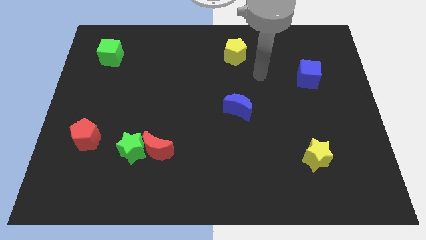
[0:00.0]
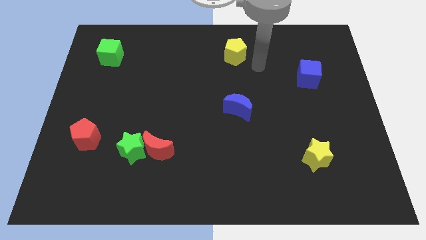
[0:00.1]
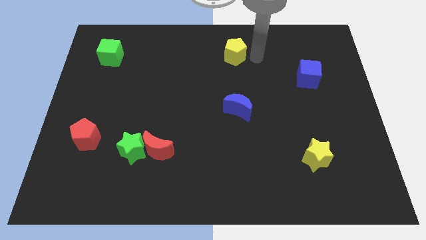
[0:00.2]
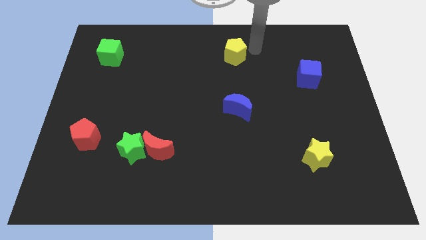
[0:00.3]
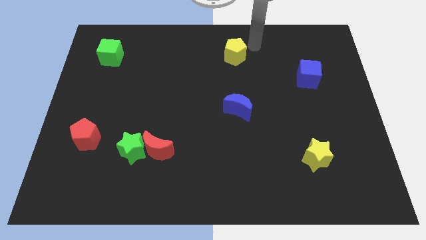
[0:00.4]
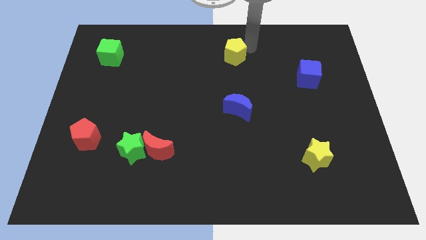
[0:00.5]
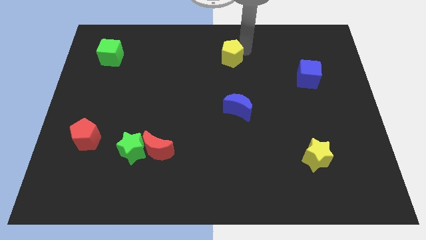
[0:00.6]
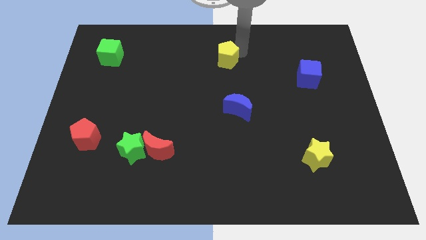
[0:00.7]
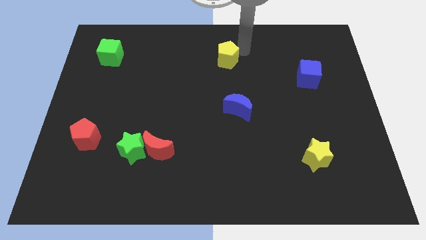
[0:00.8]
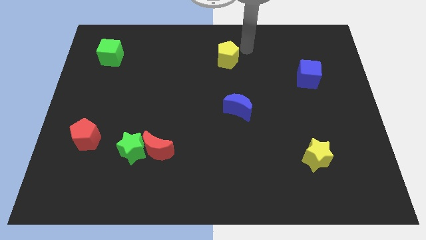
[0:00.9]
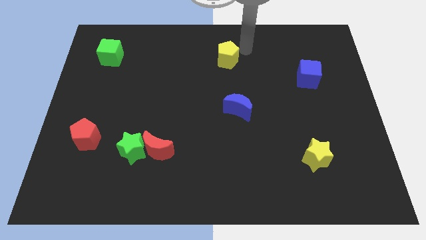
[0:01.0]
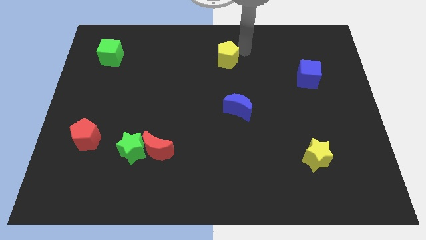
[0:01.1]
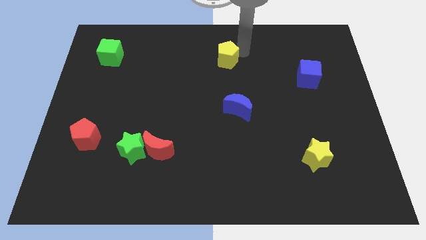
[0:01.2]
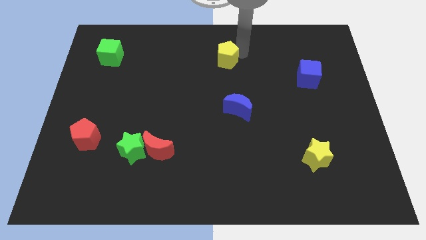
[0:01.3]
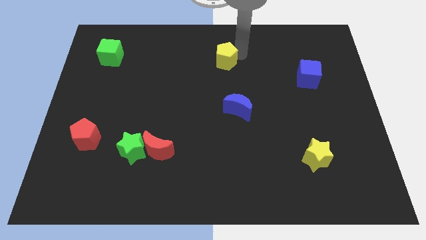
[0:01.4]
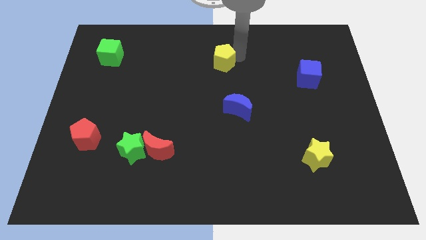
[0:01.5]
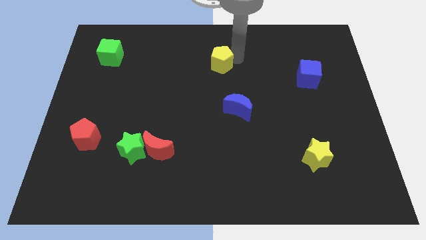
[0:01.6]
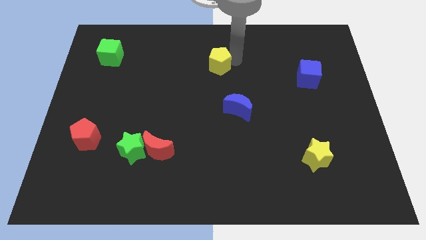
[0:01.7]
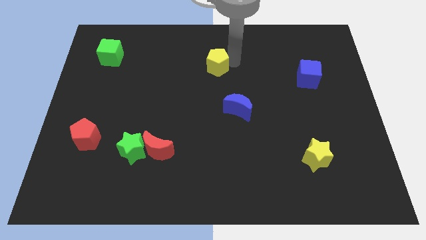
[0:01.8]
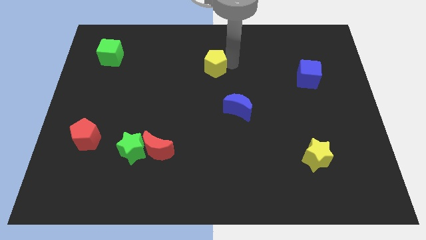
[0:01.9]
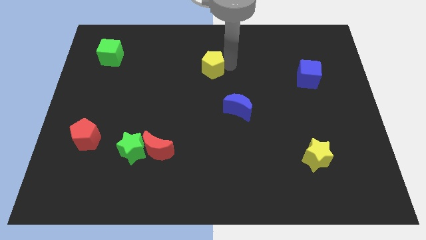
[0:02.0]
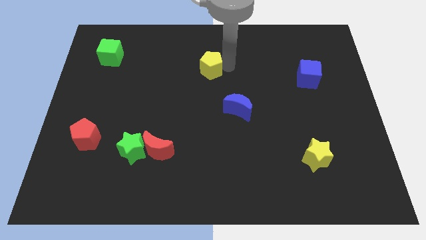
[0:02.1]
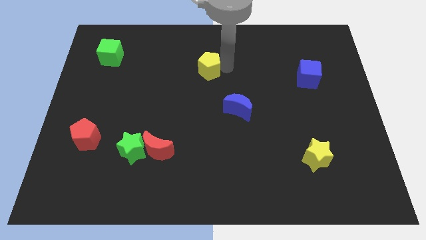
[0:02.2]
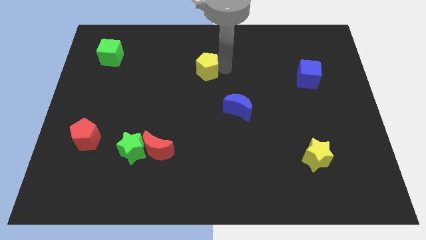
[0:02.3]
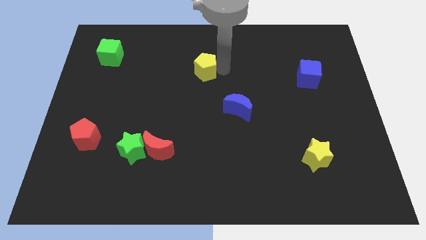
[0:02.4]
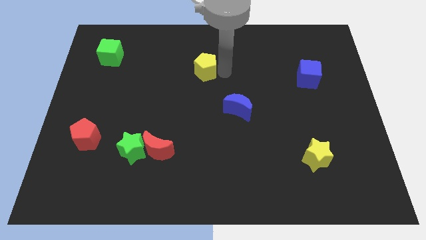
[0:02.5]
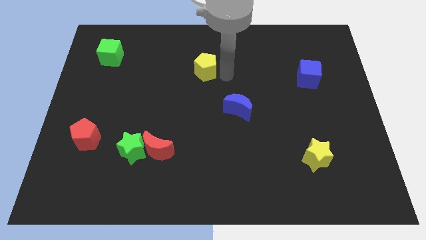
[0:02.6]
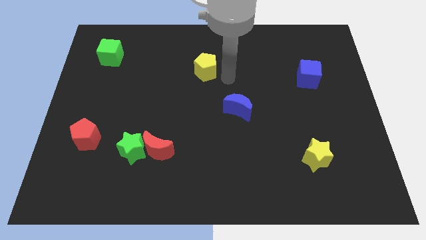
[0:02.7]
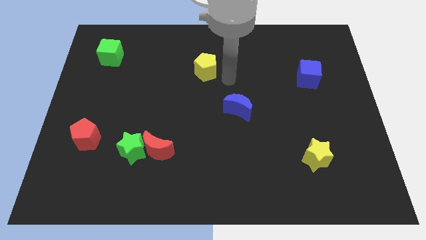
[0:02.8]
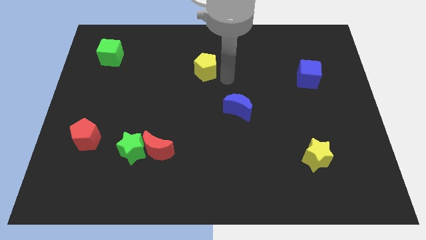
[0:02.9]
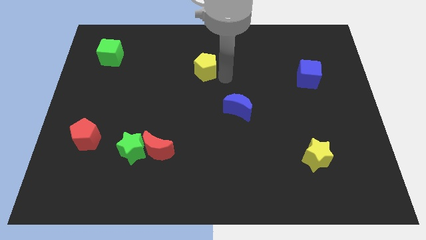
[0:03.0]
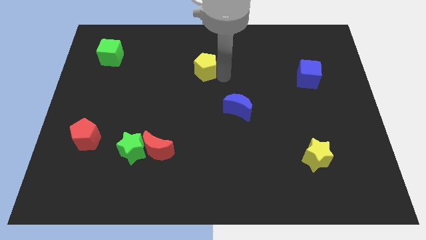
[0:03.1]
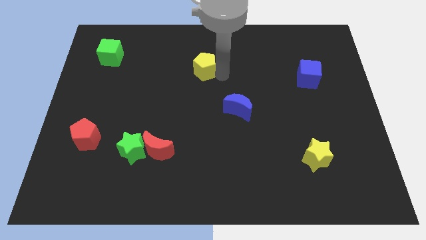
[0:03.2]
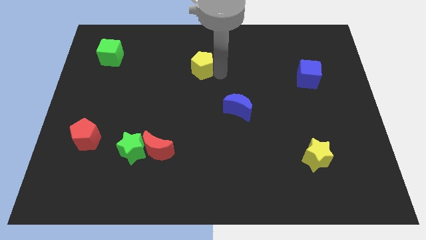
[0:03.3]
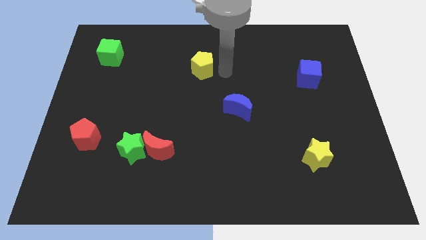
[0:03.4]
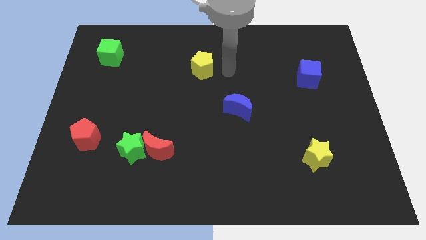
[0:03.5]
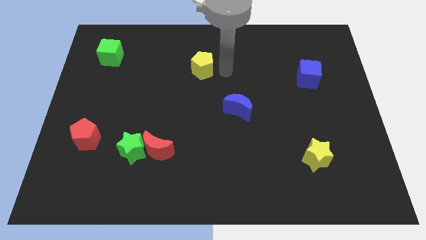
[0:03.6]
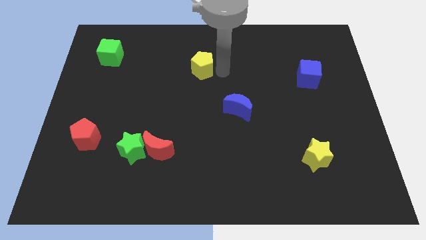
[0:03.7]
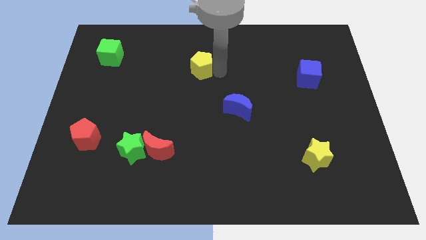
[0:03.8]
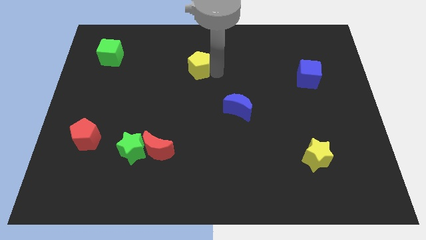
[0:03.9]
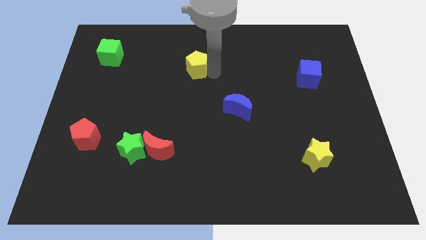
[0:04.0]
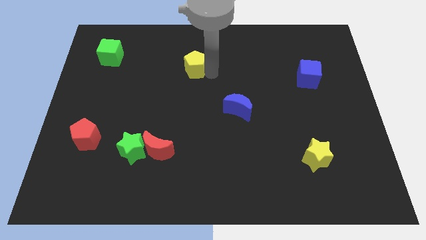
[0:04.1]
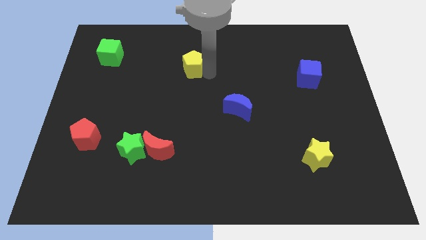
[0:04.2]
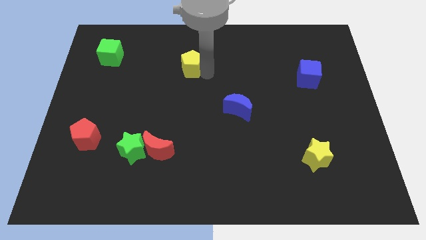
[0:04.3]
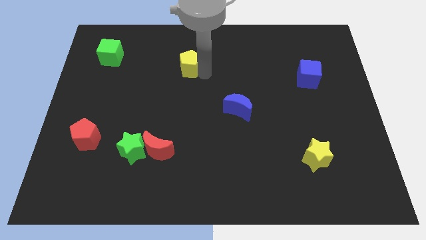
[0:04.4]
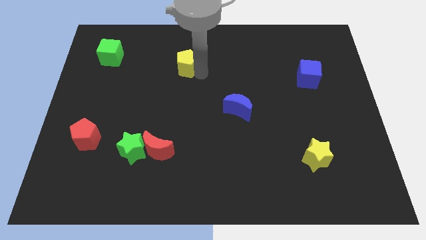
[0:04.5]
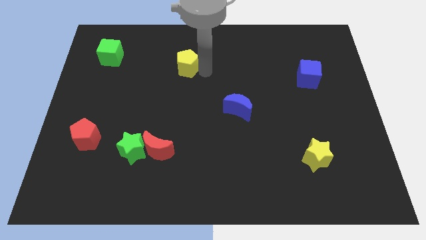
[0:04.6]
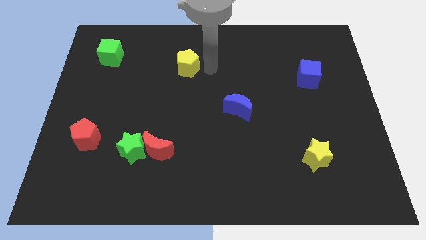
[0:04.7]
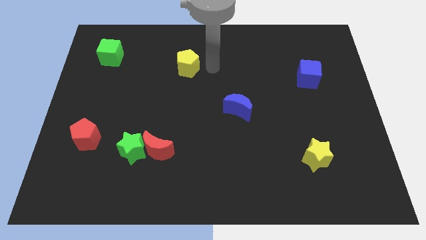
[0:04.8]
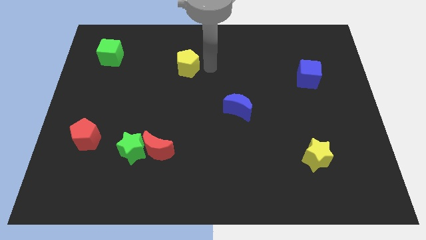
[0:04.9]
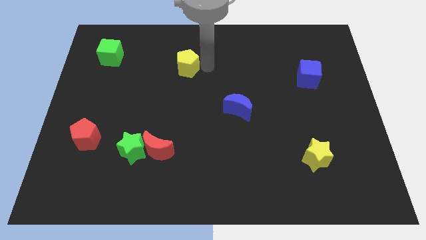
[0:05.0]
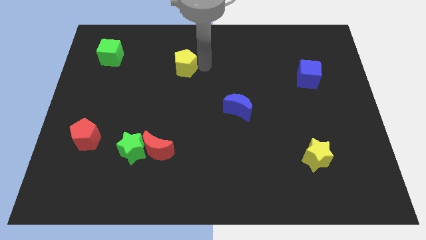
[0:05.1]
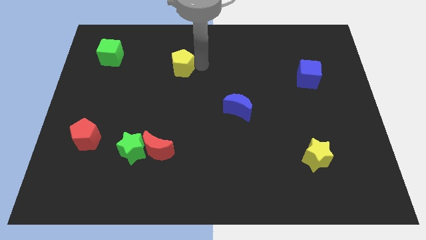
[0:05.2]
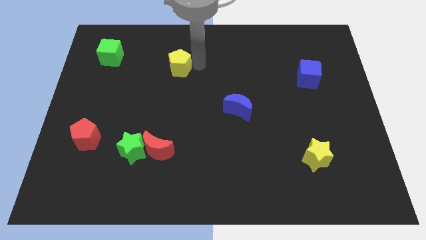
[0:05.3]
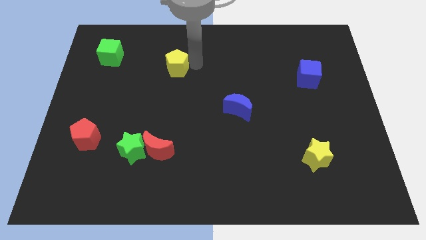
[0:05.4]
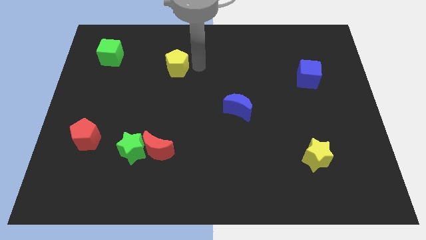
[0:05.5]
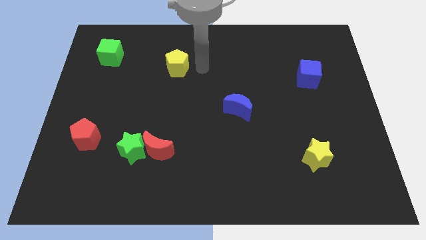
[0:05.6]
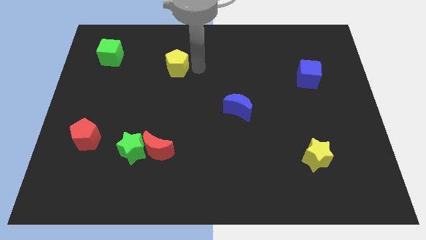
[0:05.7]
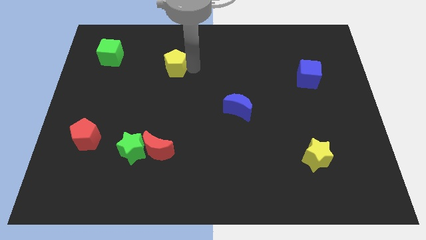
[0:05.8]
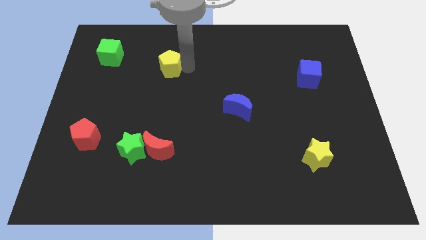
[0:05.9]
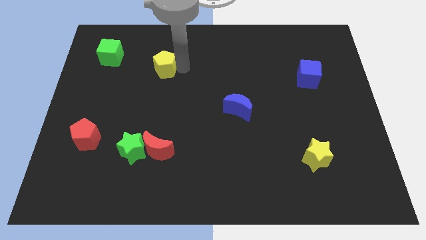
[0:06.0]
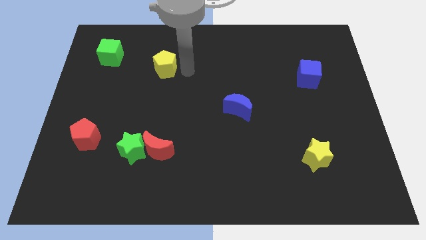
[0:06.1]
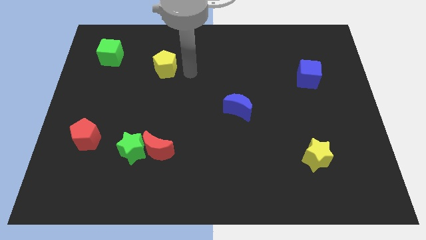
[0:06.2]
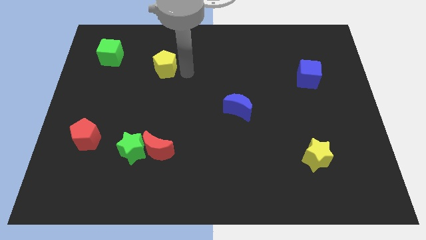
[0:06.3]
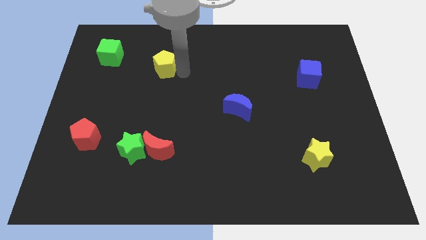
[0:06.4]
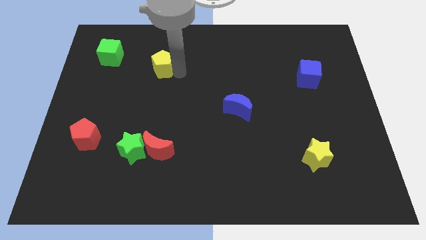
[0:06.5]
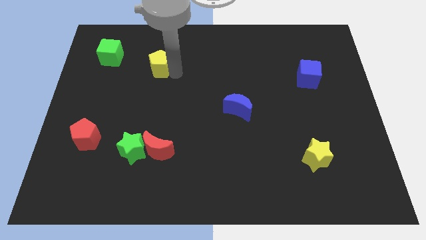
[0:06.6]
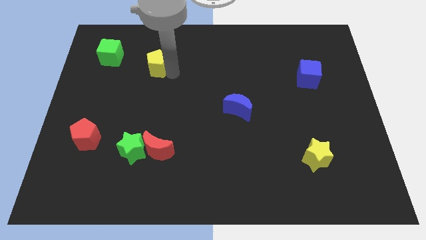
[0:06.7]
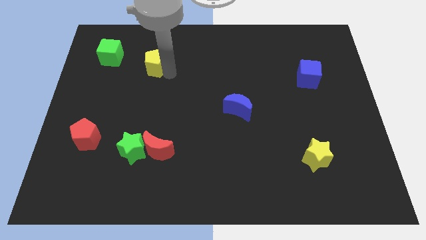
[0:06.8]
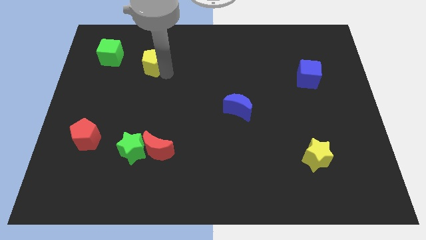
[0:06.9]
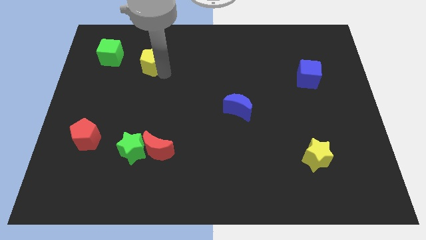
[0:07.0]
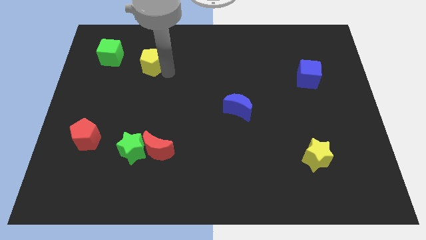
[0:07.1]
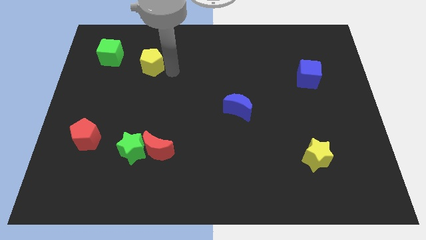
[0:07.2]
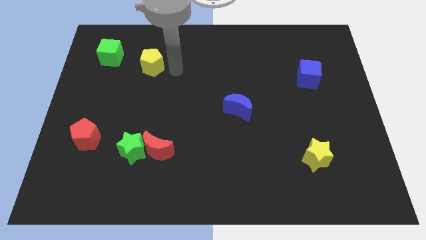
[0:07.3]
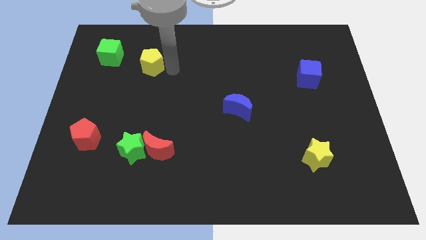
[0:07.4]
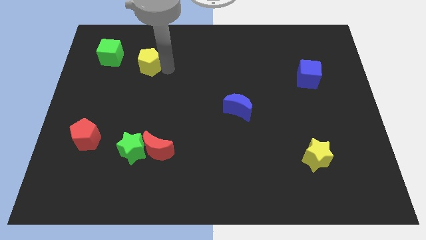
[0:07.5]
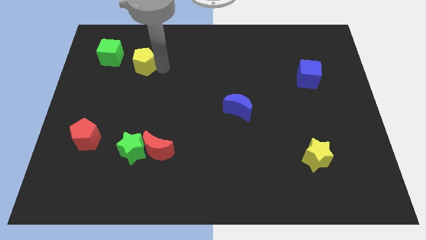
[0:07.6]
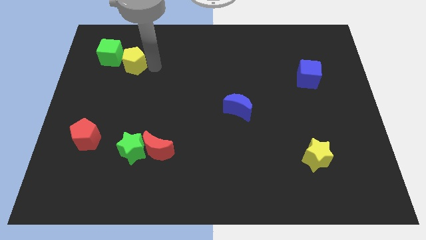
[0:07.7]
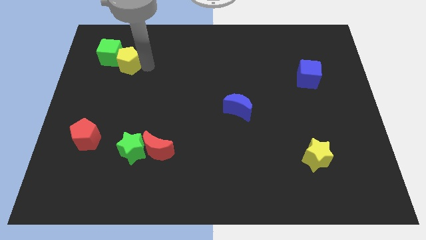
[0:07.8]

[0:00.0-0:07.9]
put the yellow pentagon to the green cube
